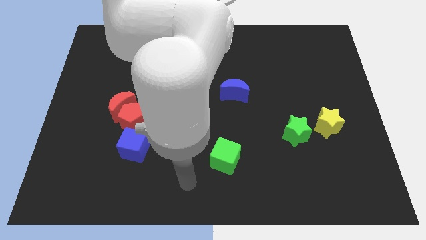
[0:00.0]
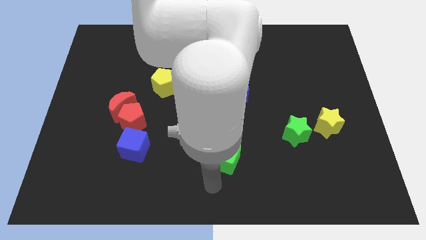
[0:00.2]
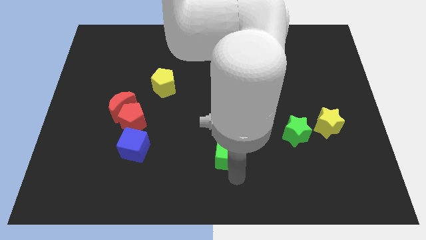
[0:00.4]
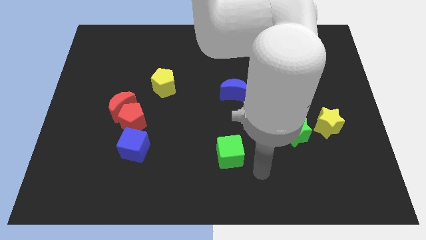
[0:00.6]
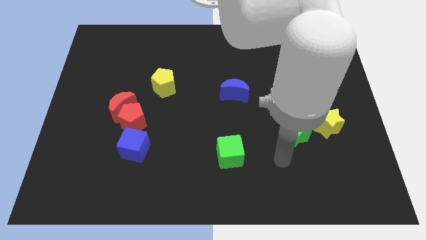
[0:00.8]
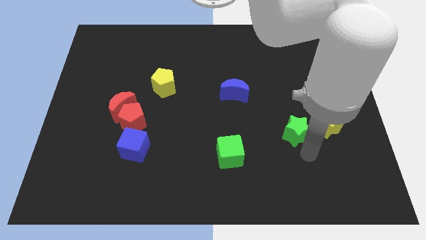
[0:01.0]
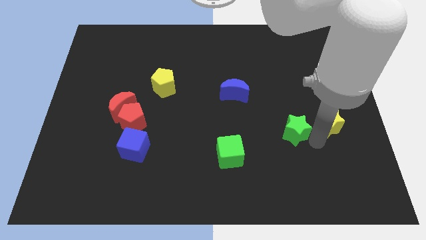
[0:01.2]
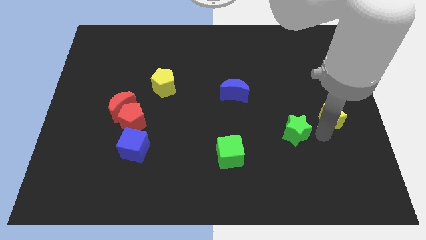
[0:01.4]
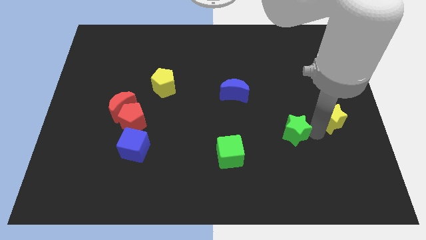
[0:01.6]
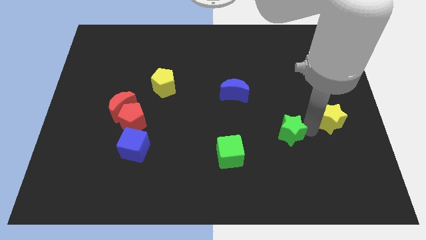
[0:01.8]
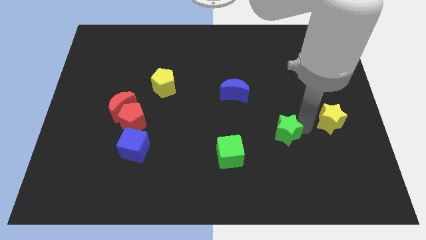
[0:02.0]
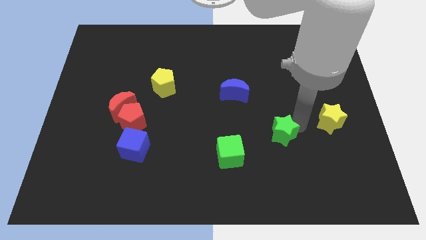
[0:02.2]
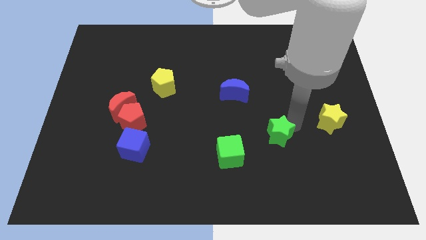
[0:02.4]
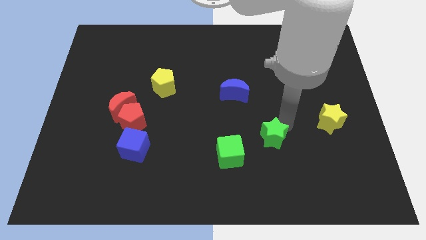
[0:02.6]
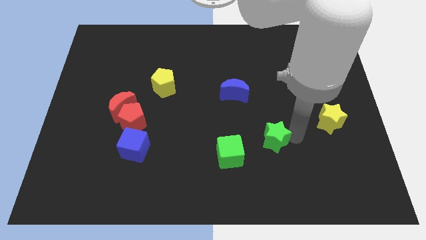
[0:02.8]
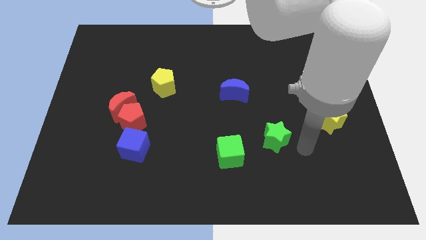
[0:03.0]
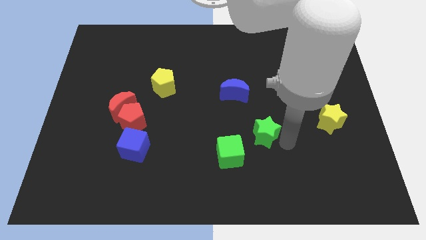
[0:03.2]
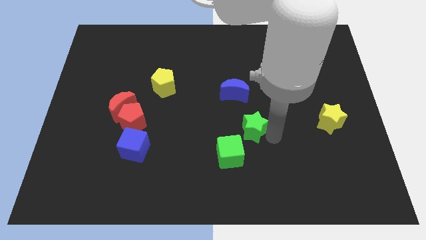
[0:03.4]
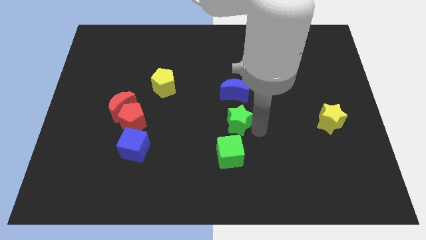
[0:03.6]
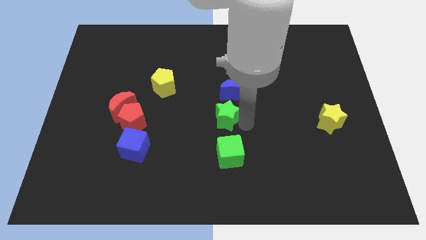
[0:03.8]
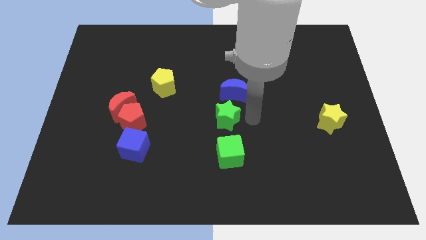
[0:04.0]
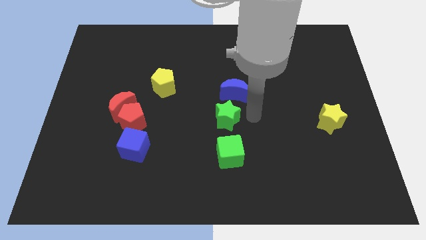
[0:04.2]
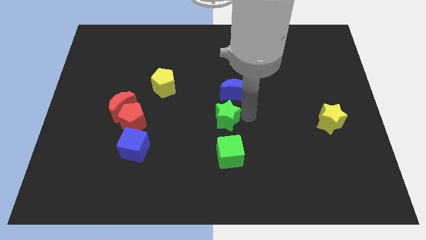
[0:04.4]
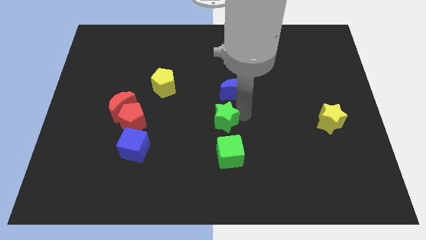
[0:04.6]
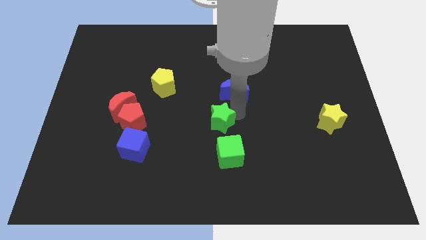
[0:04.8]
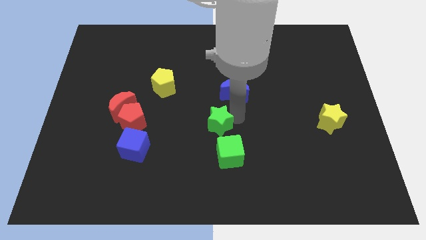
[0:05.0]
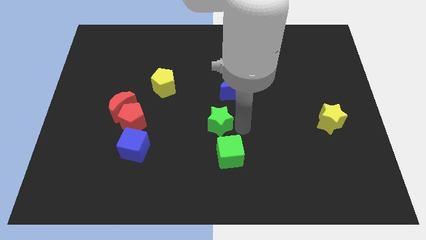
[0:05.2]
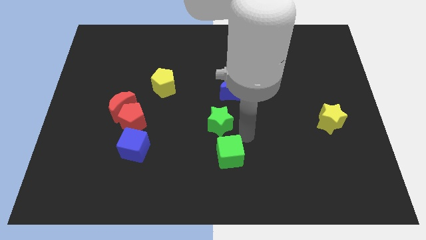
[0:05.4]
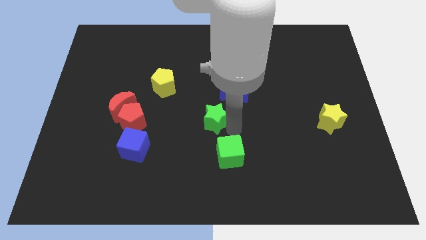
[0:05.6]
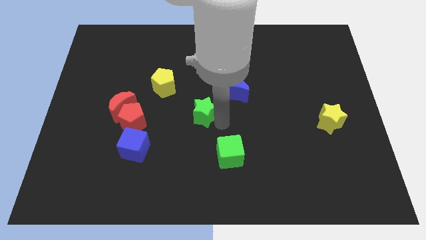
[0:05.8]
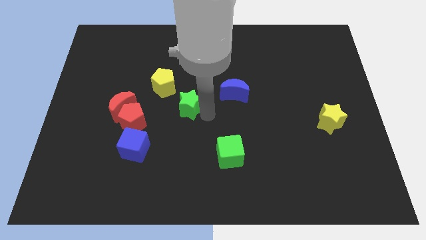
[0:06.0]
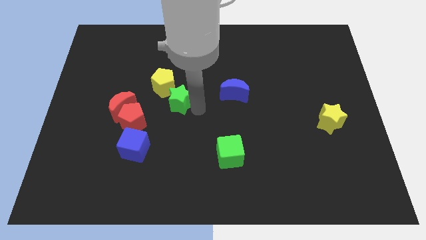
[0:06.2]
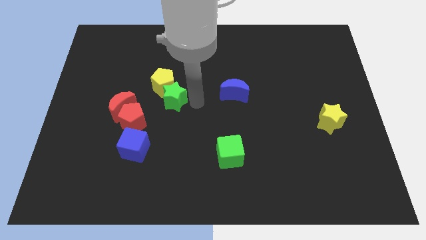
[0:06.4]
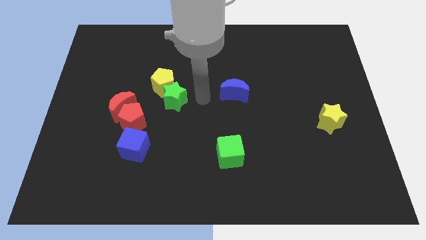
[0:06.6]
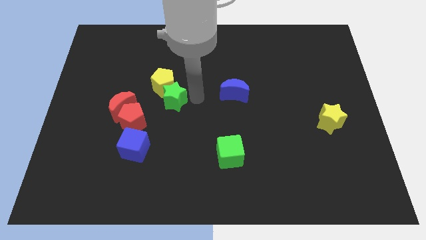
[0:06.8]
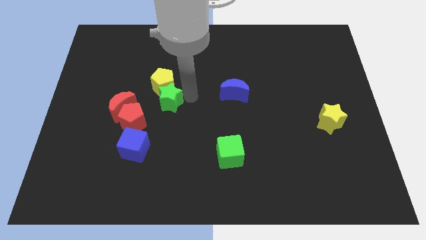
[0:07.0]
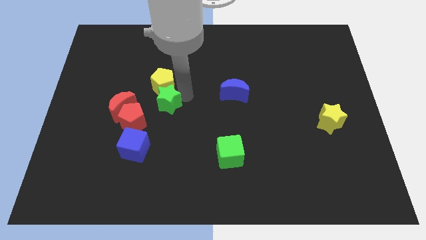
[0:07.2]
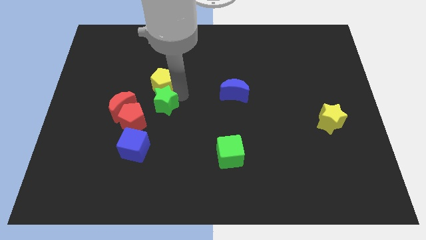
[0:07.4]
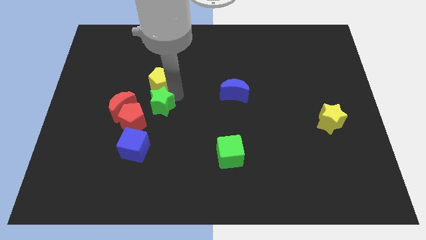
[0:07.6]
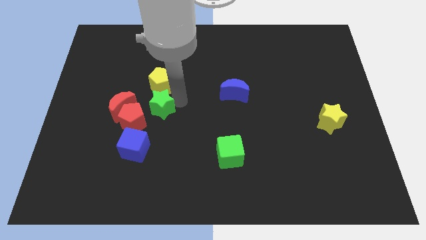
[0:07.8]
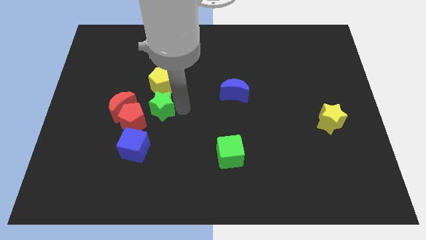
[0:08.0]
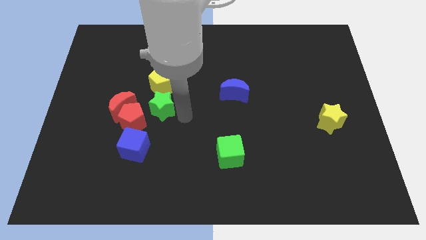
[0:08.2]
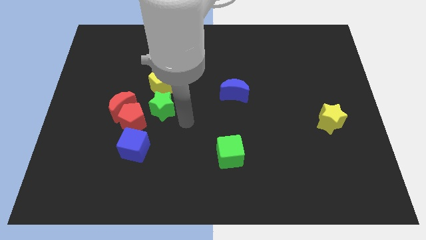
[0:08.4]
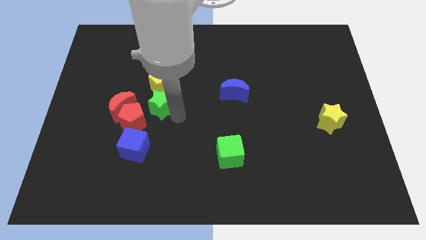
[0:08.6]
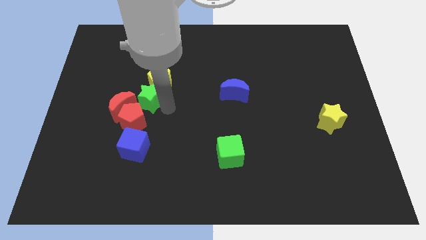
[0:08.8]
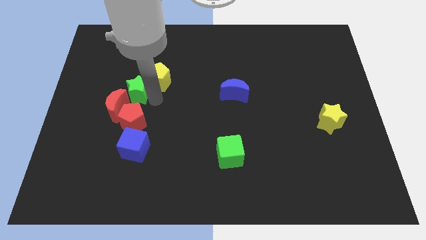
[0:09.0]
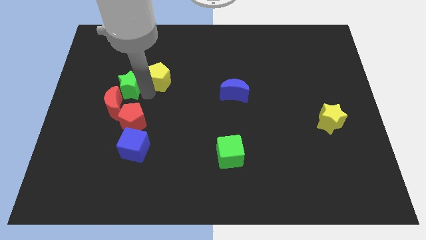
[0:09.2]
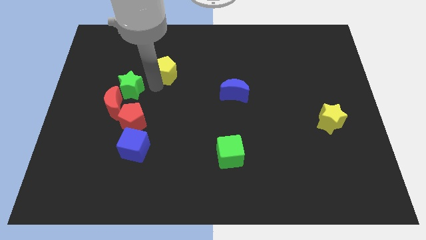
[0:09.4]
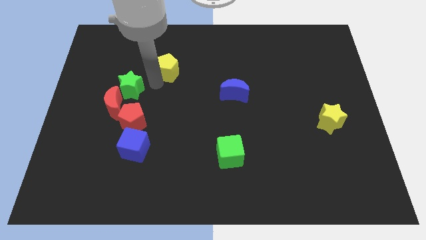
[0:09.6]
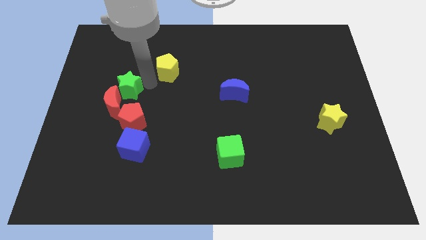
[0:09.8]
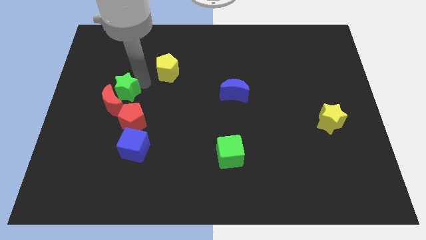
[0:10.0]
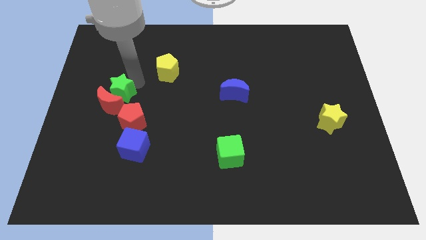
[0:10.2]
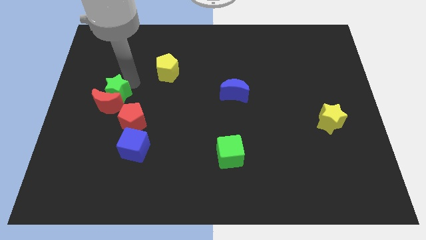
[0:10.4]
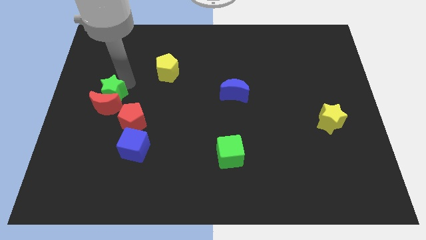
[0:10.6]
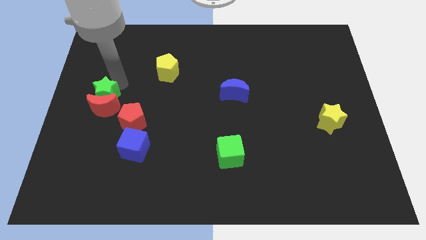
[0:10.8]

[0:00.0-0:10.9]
move the green star to the left side
